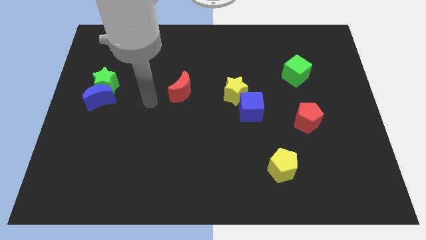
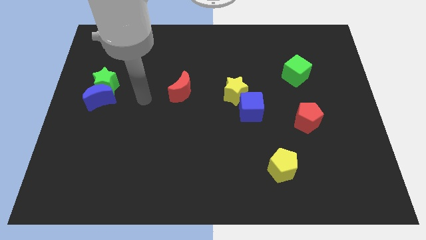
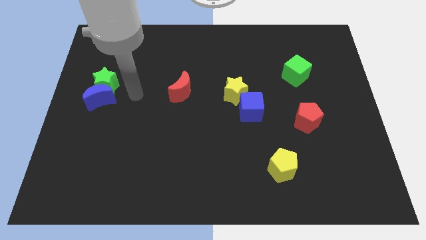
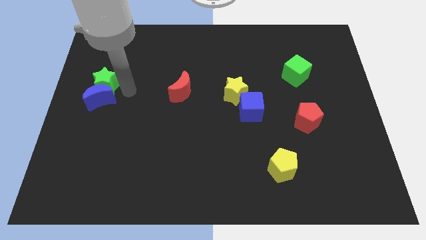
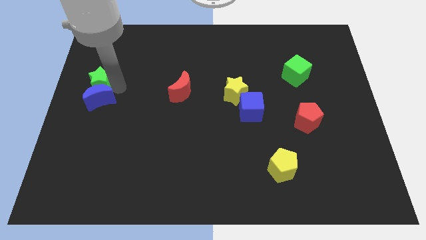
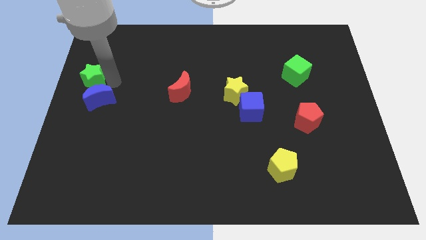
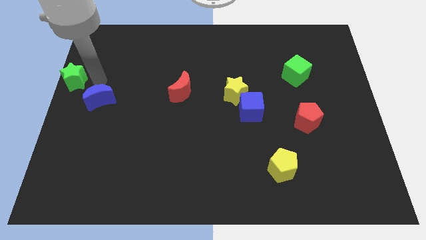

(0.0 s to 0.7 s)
separate the blue moon from the green star

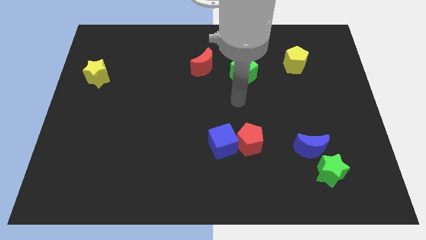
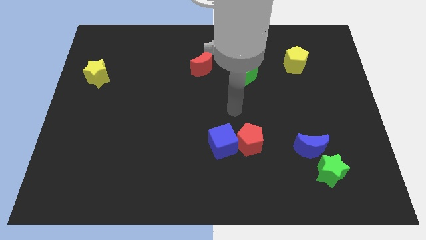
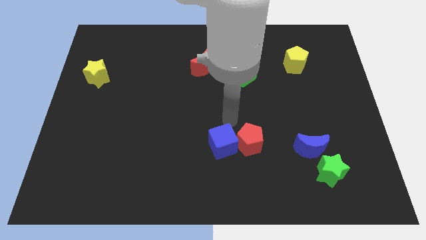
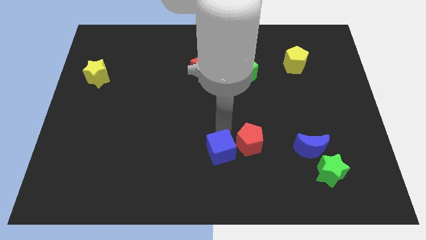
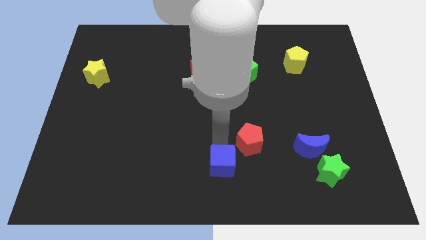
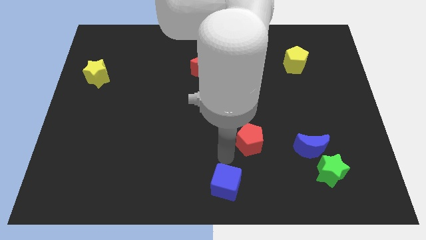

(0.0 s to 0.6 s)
move the red pentagon away from the blue cube

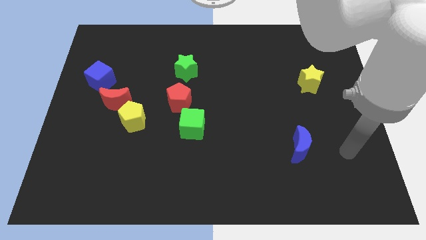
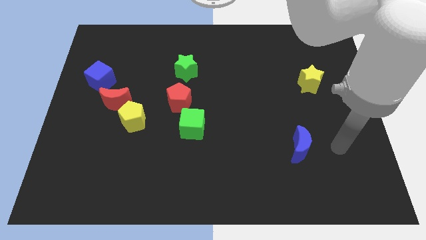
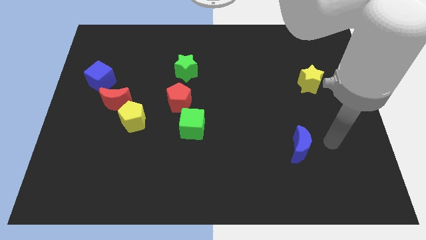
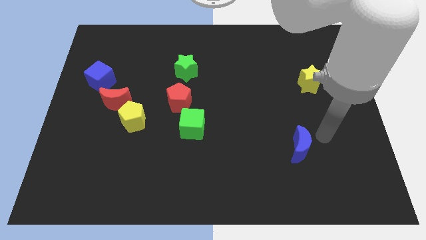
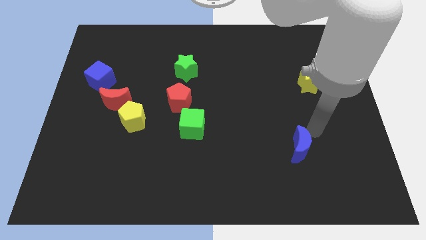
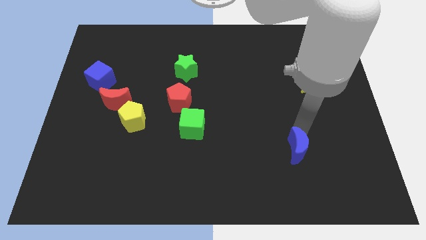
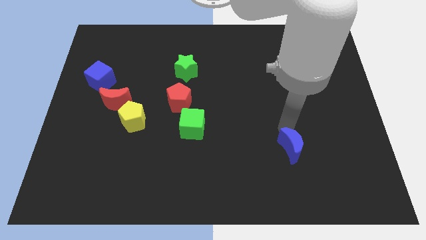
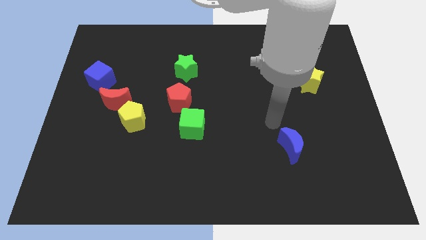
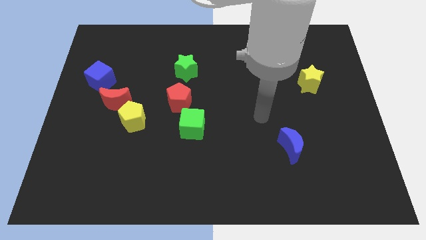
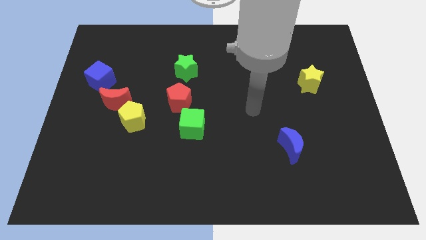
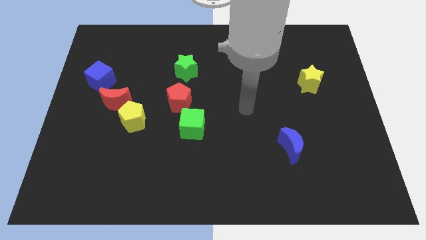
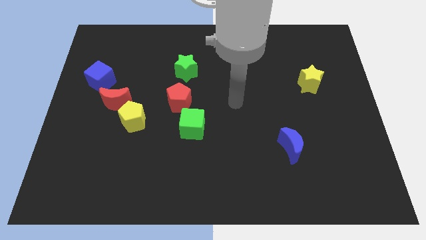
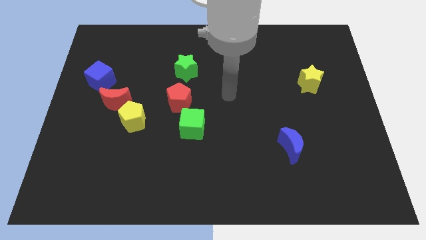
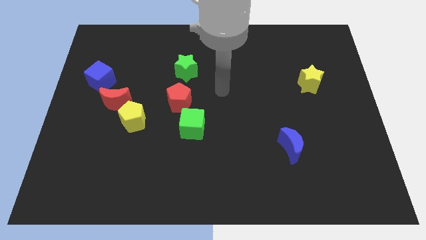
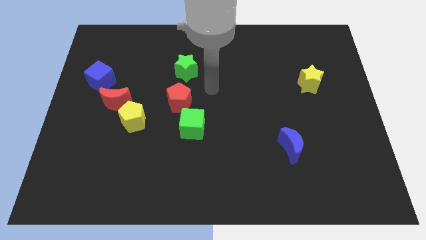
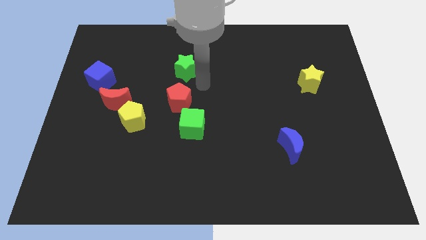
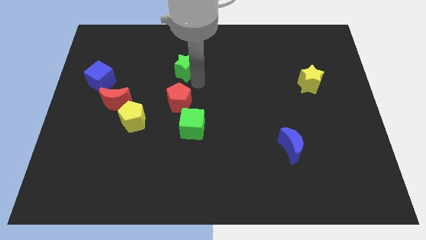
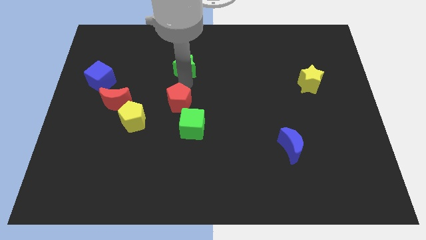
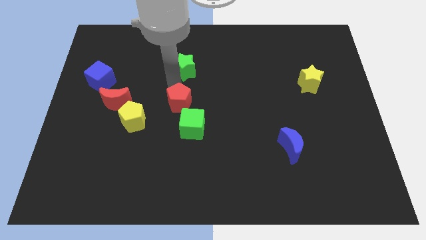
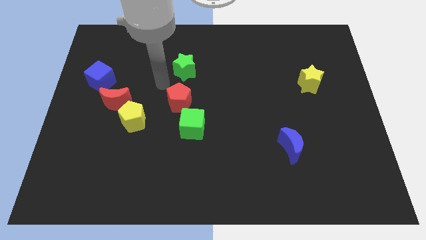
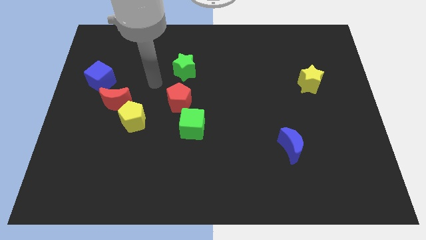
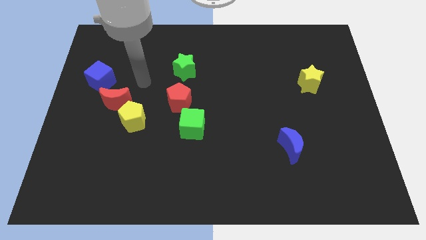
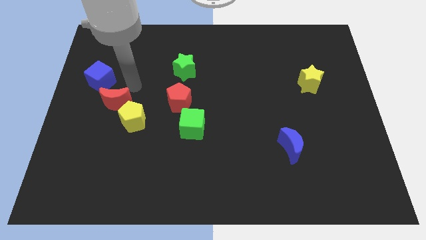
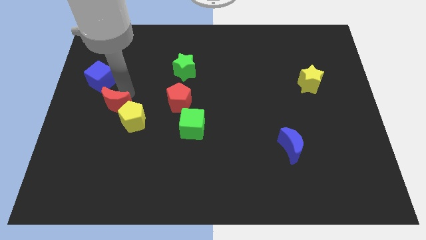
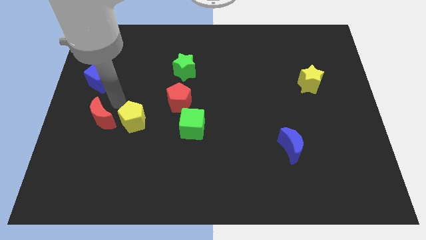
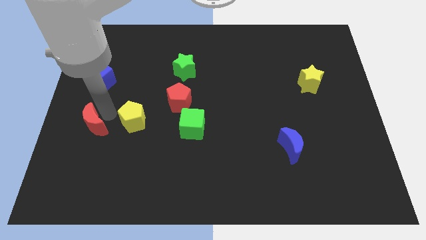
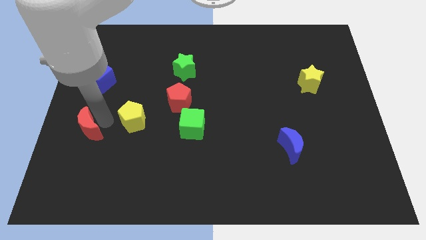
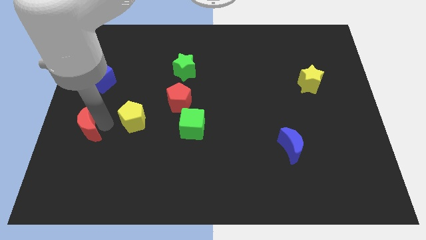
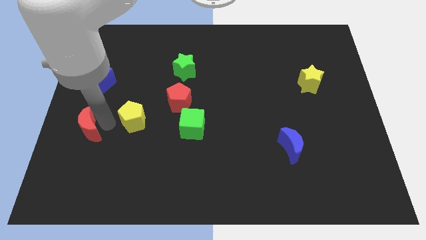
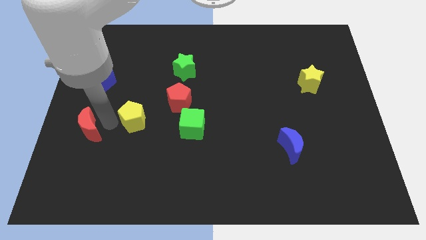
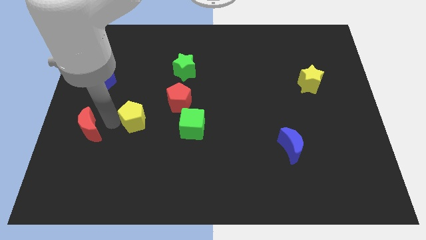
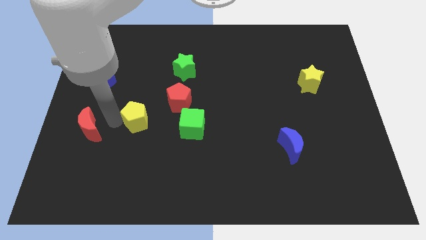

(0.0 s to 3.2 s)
pull the yellow pentagon apart from the red moon

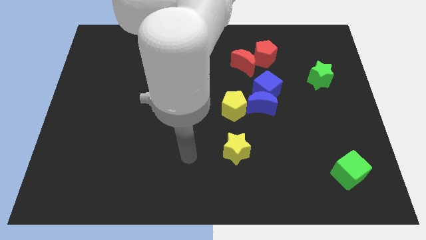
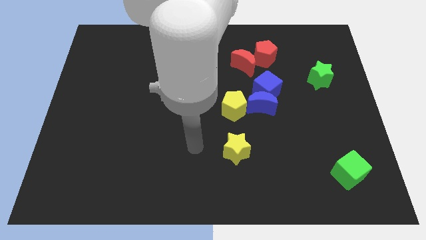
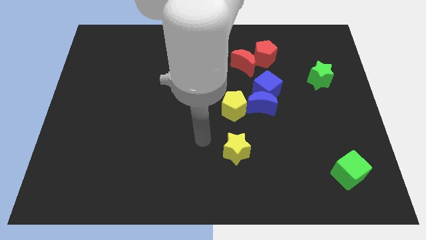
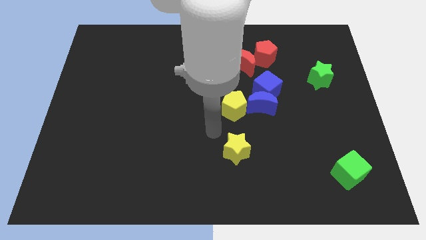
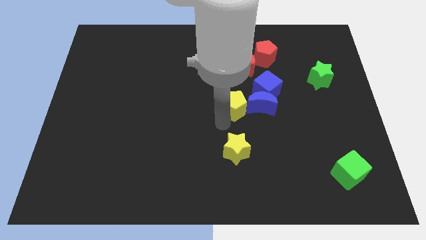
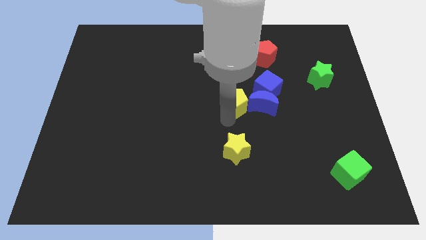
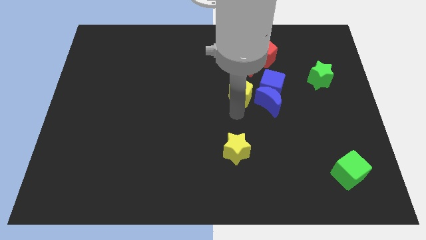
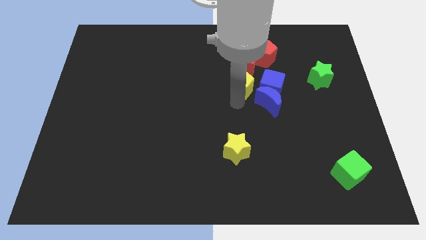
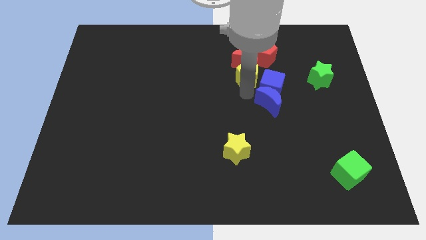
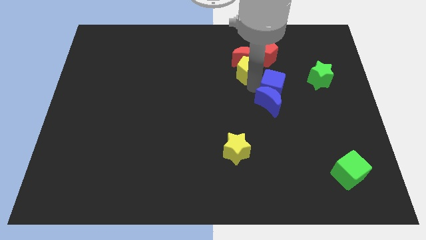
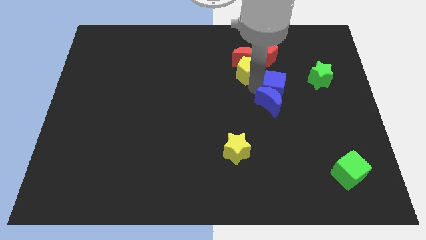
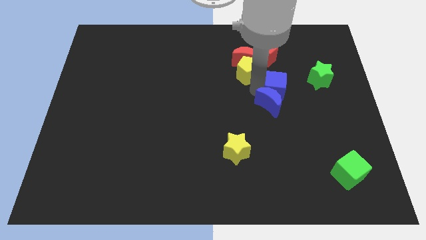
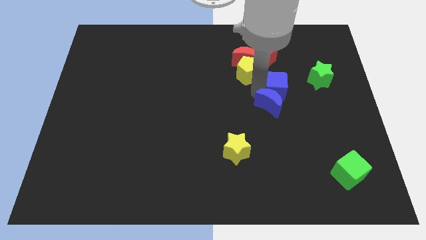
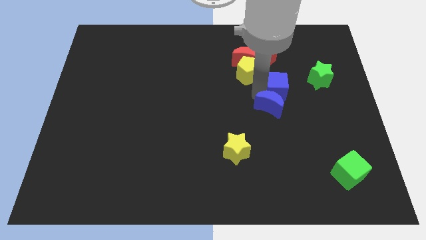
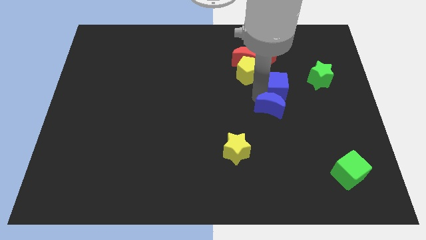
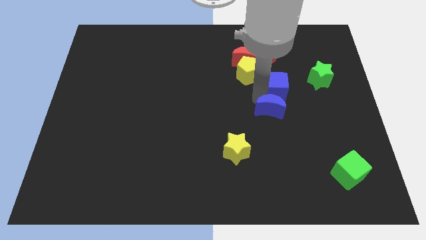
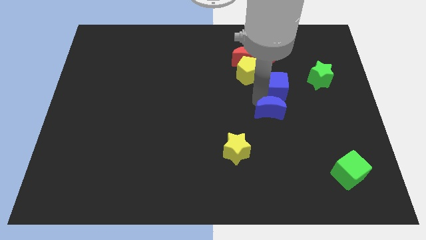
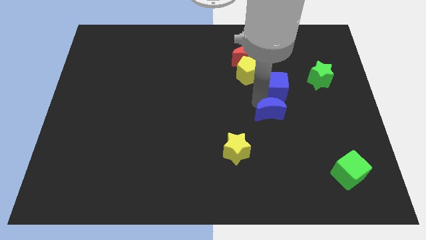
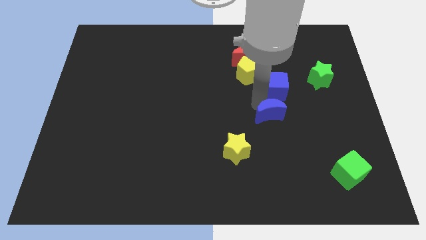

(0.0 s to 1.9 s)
move the blue moon away from the blue cube and yellow pentagon

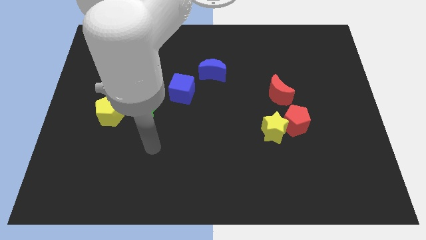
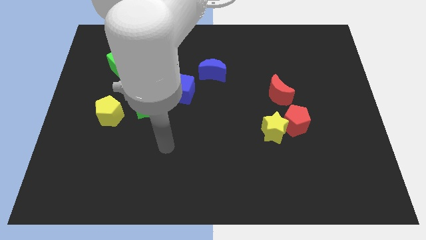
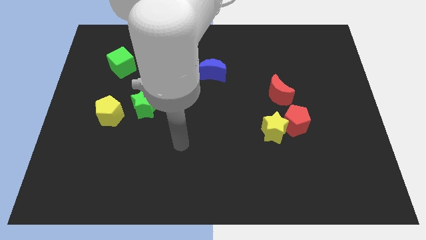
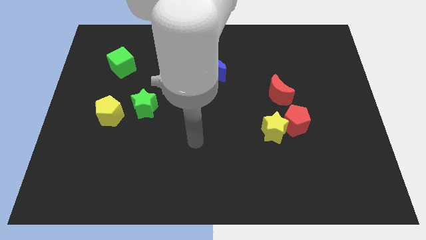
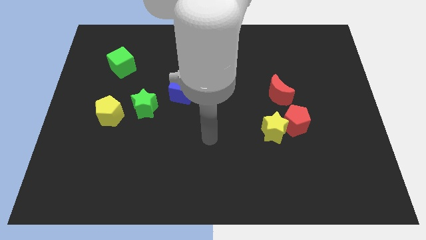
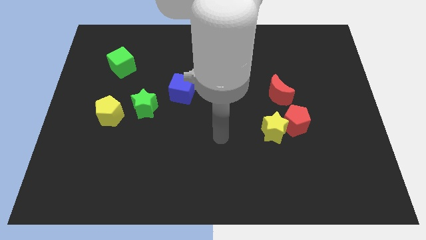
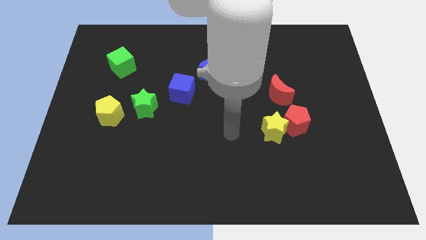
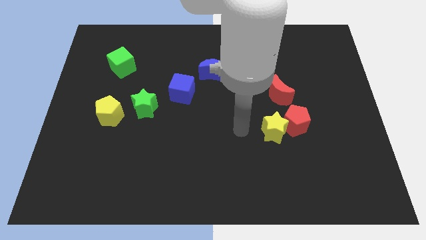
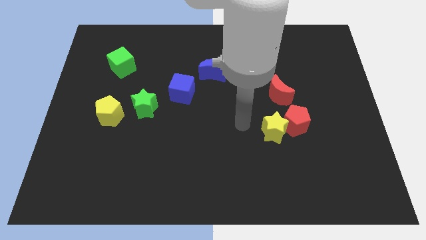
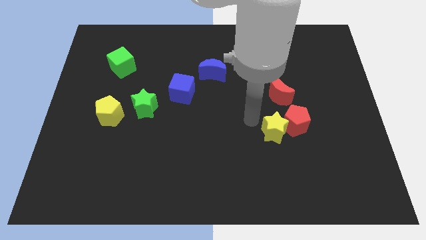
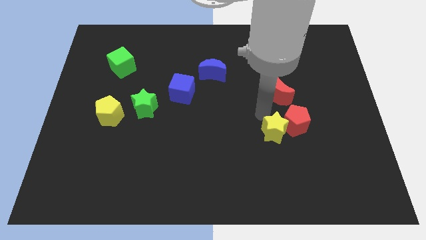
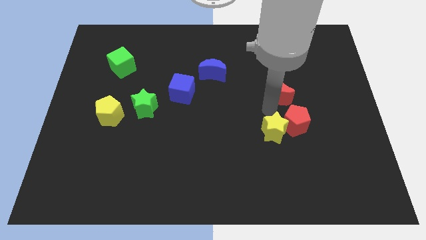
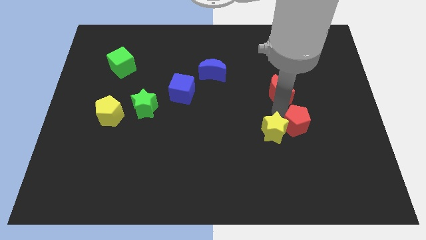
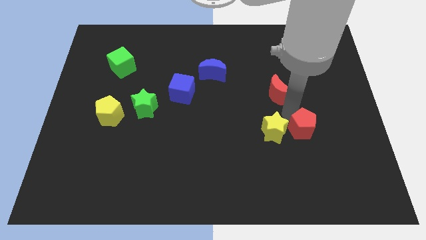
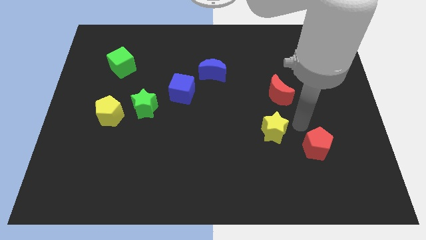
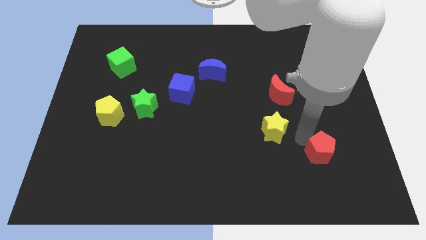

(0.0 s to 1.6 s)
separate the yellow star from the red pentagon

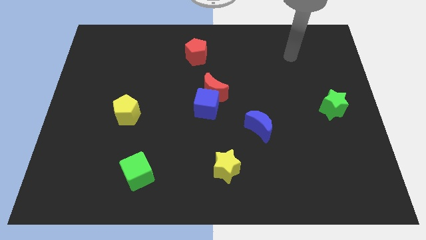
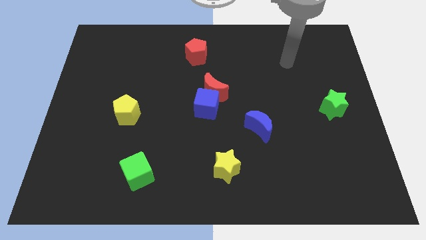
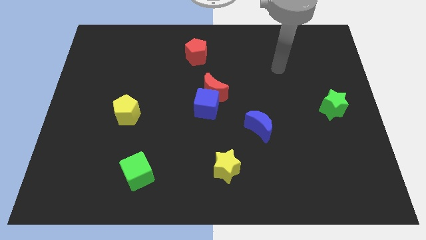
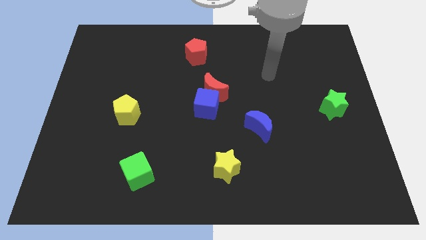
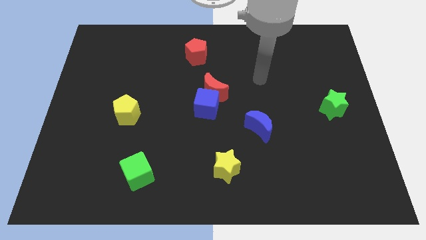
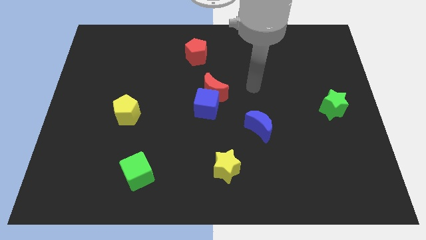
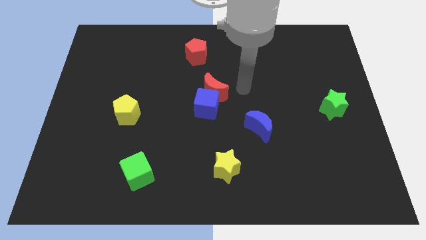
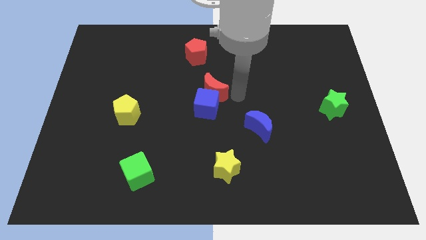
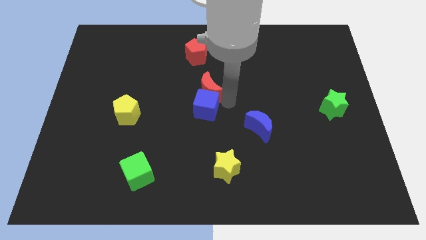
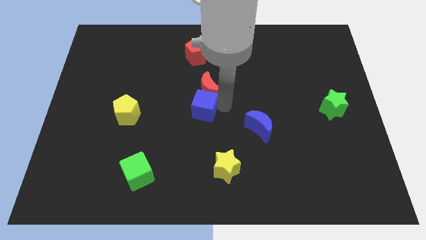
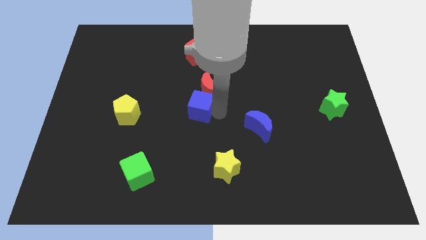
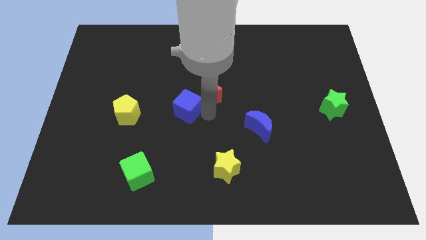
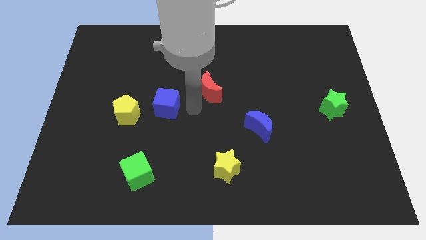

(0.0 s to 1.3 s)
pull the red moon apart from the blue cube
